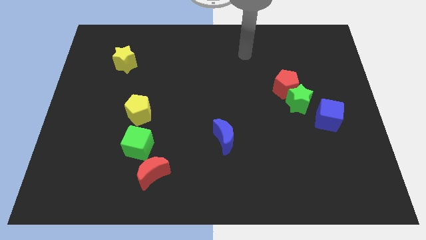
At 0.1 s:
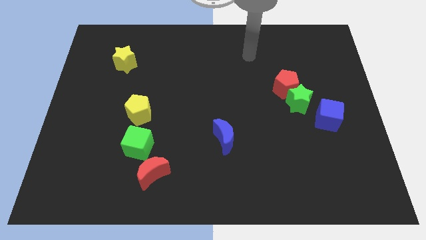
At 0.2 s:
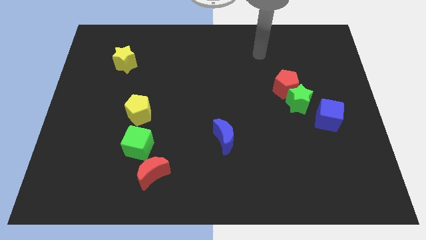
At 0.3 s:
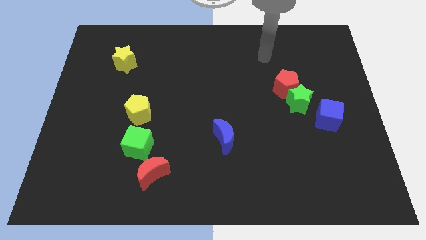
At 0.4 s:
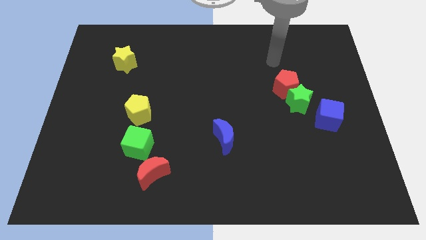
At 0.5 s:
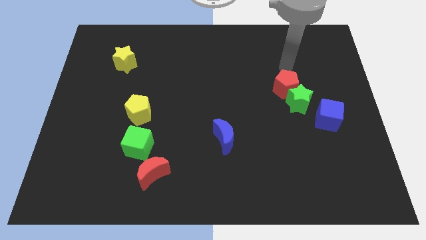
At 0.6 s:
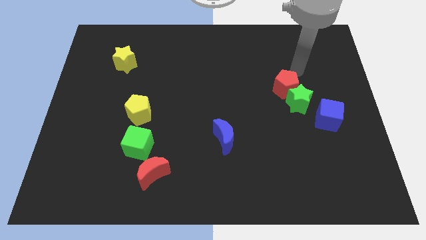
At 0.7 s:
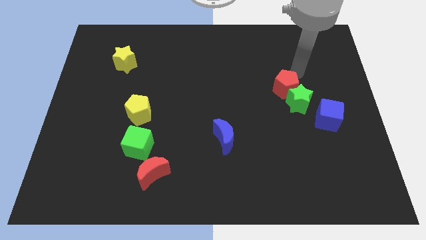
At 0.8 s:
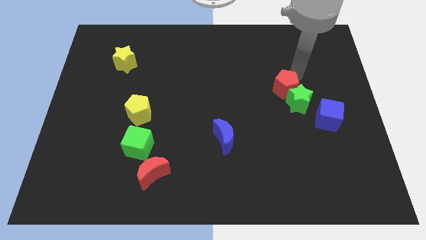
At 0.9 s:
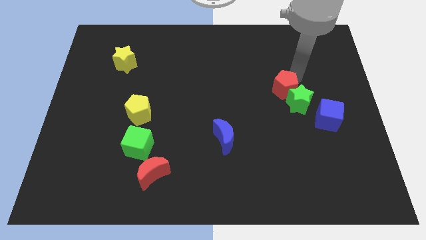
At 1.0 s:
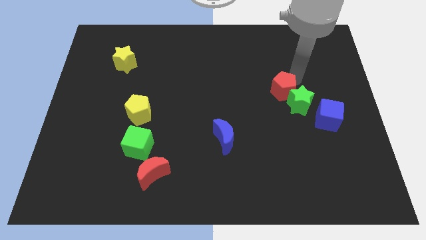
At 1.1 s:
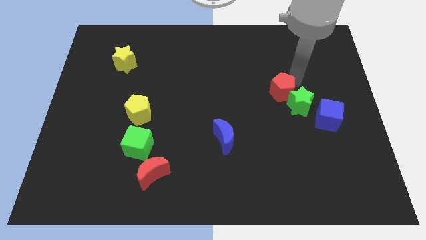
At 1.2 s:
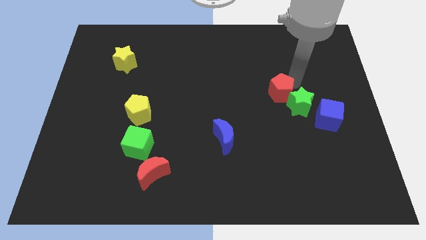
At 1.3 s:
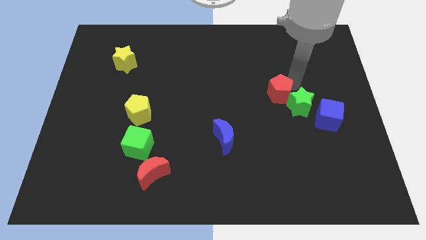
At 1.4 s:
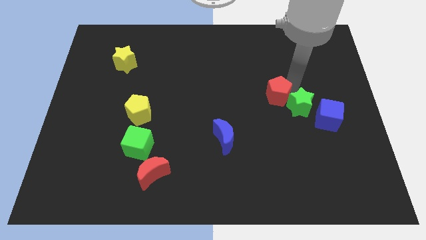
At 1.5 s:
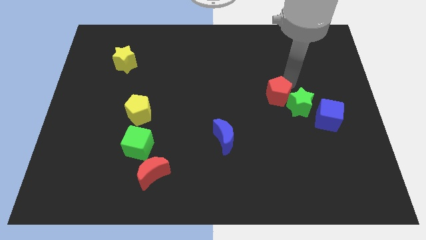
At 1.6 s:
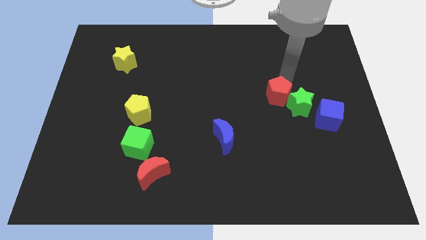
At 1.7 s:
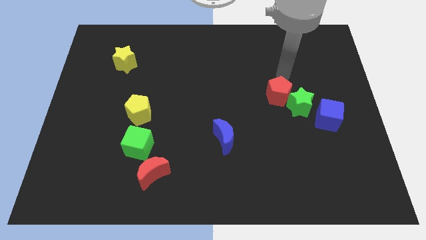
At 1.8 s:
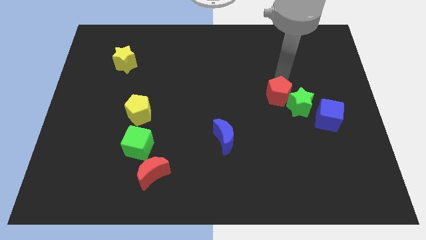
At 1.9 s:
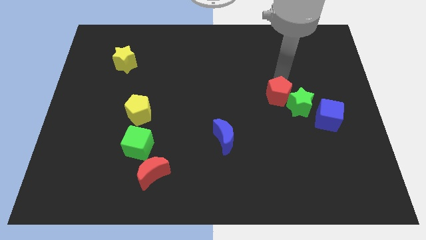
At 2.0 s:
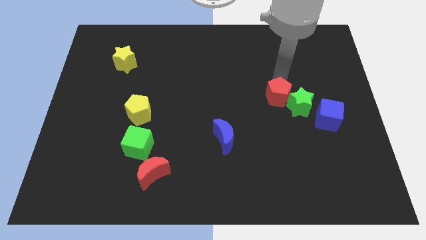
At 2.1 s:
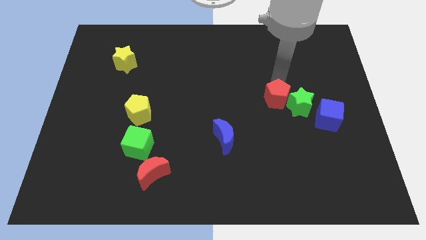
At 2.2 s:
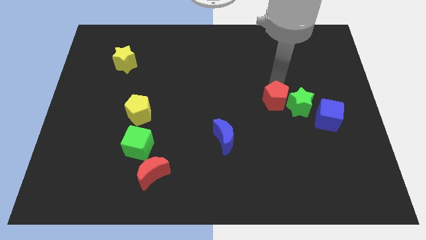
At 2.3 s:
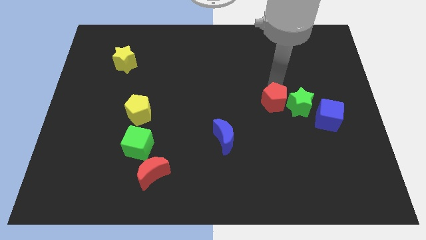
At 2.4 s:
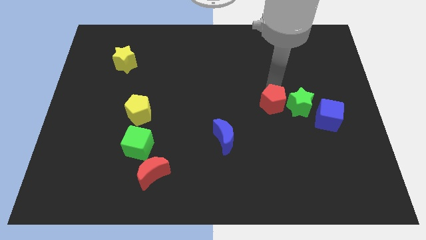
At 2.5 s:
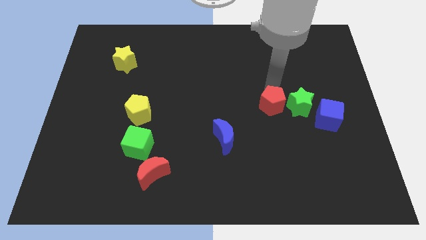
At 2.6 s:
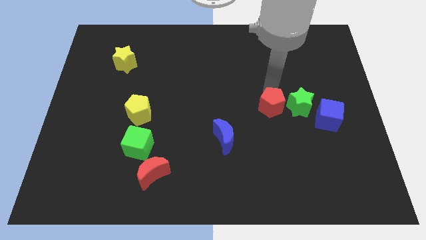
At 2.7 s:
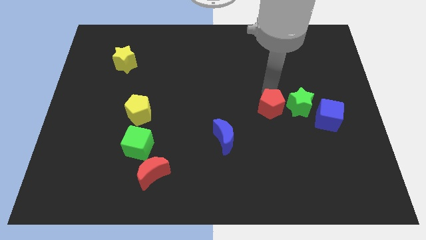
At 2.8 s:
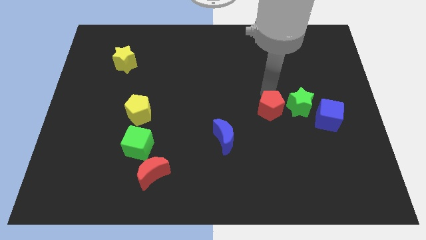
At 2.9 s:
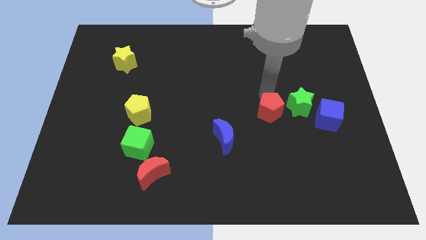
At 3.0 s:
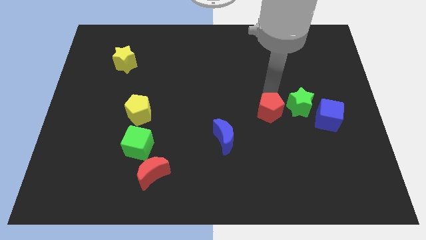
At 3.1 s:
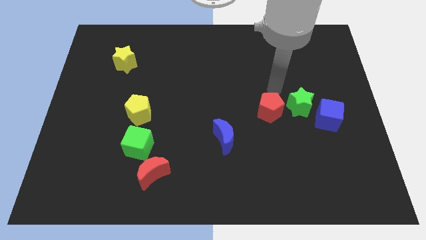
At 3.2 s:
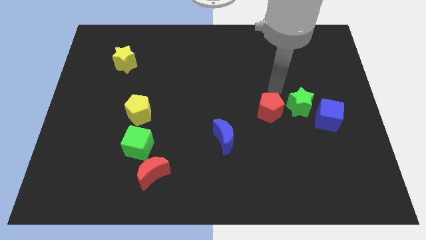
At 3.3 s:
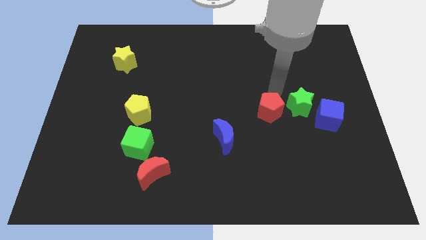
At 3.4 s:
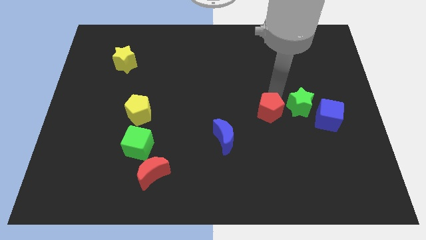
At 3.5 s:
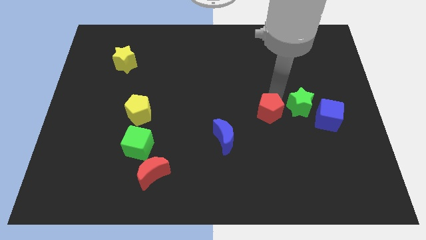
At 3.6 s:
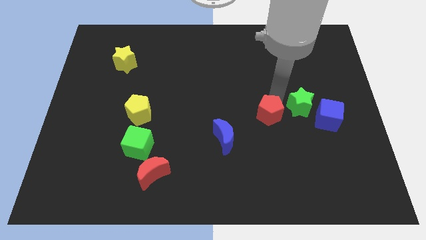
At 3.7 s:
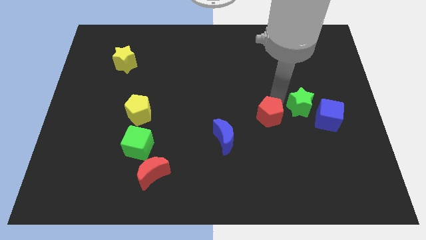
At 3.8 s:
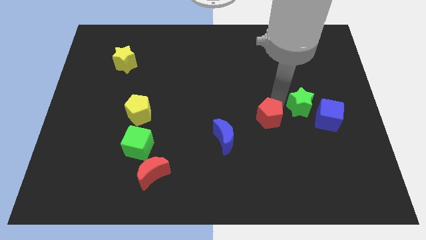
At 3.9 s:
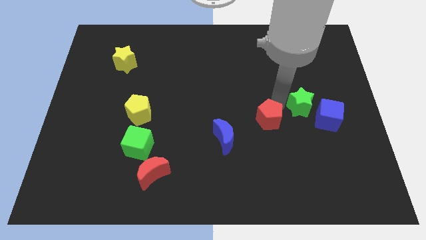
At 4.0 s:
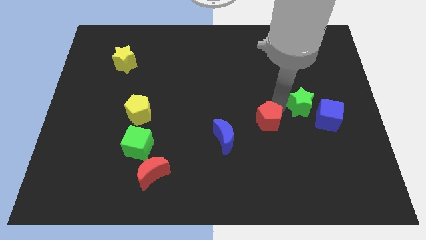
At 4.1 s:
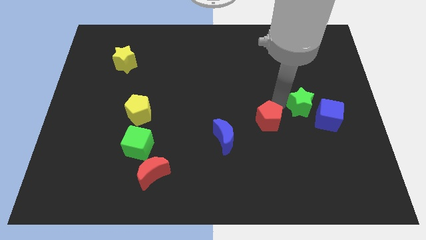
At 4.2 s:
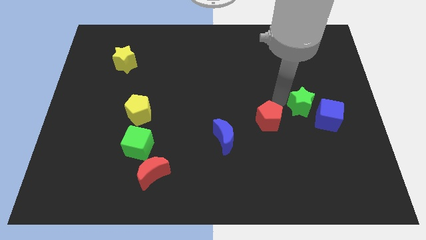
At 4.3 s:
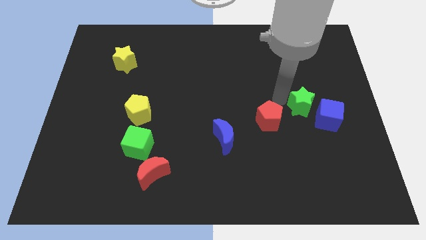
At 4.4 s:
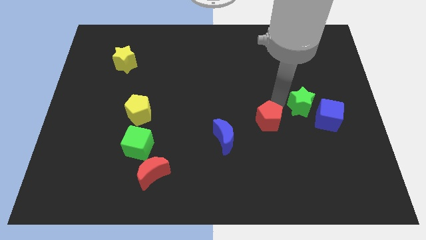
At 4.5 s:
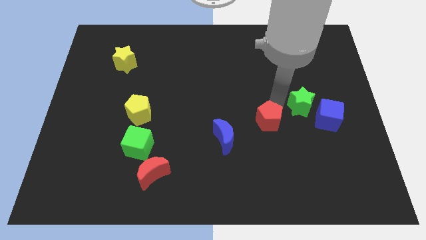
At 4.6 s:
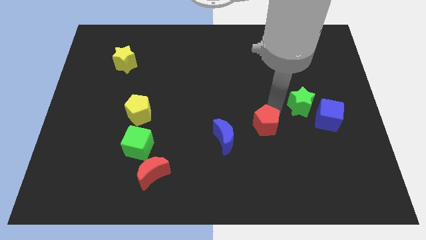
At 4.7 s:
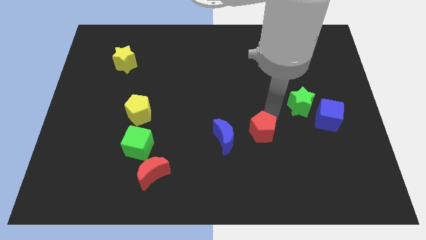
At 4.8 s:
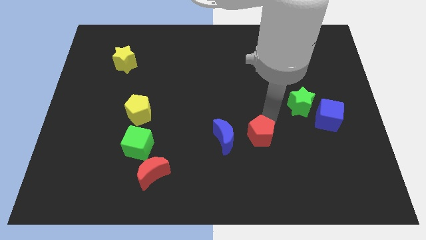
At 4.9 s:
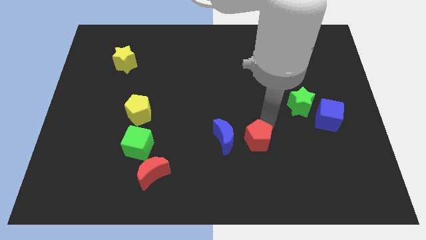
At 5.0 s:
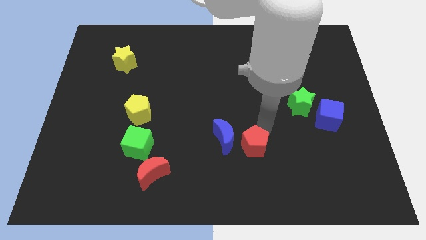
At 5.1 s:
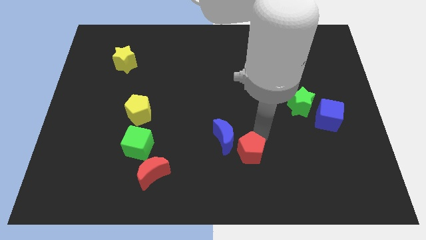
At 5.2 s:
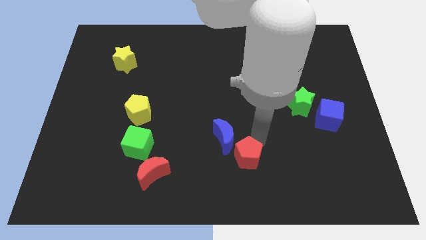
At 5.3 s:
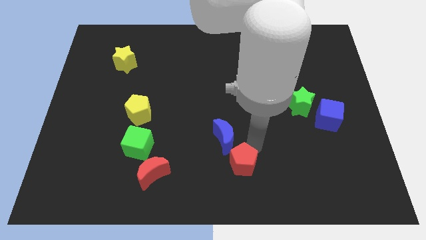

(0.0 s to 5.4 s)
move the red pentagon to the bottom side

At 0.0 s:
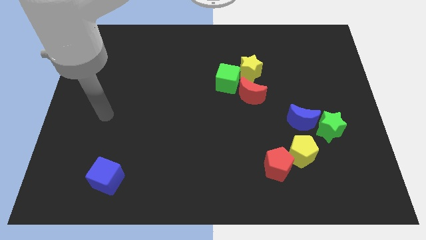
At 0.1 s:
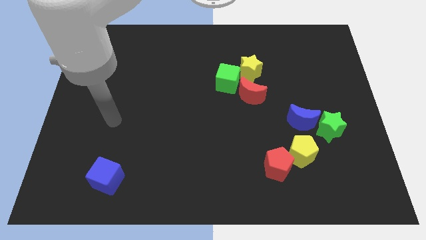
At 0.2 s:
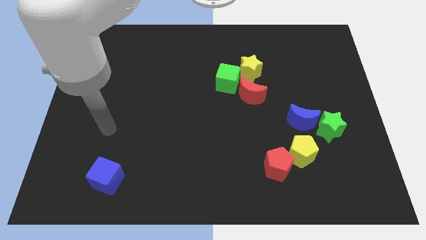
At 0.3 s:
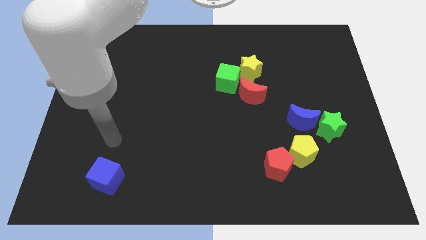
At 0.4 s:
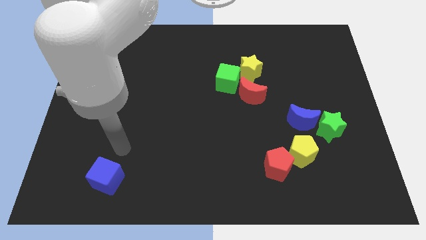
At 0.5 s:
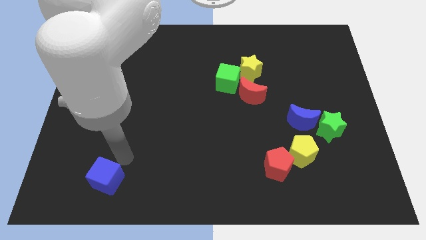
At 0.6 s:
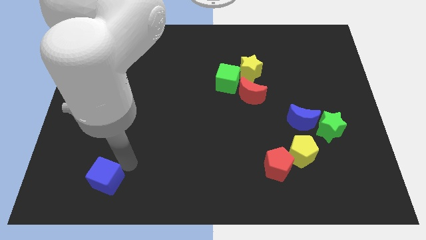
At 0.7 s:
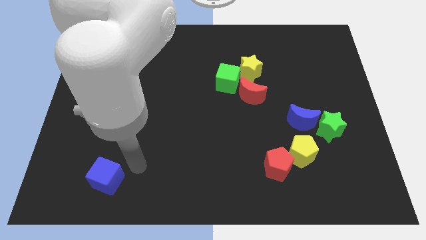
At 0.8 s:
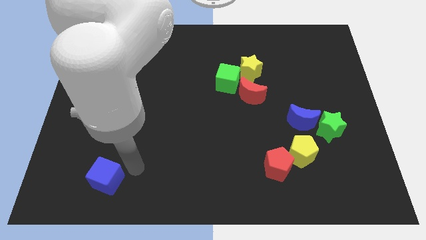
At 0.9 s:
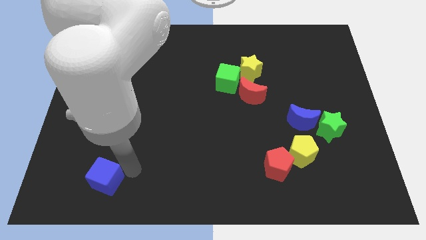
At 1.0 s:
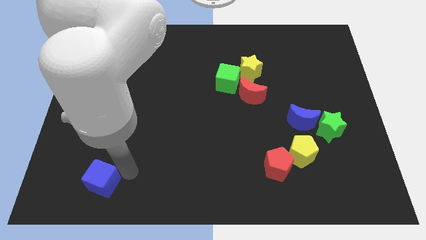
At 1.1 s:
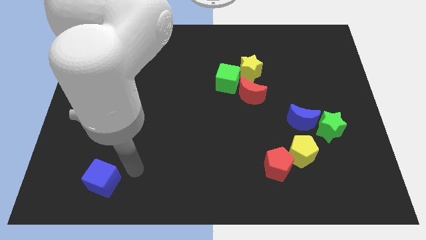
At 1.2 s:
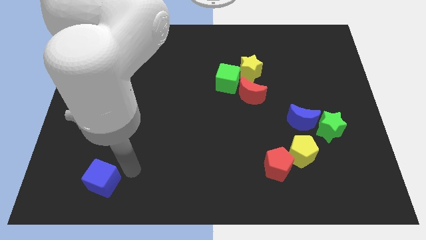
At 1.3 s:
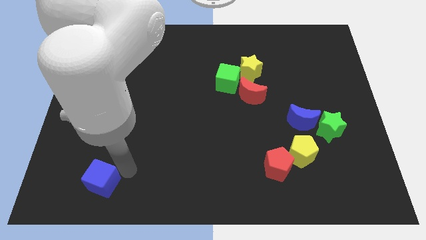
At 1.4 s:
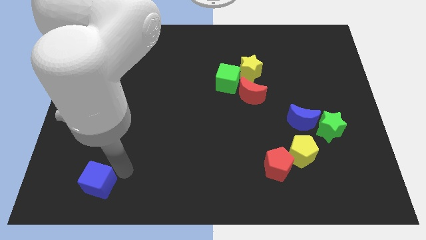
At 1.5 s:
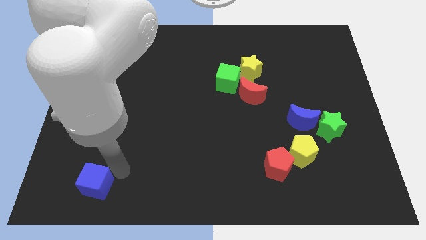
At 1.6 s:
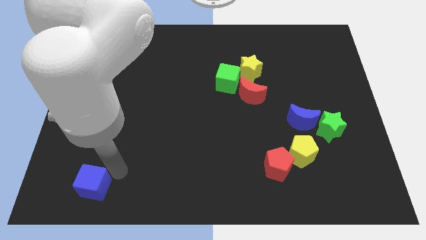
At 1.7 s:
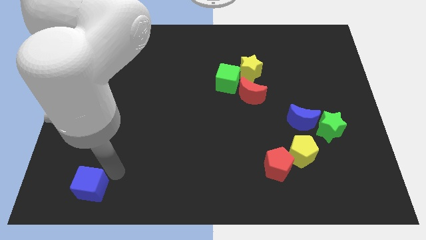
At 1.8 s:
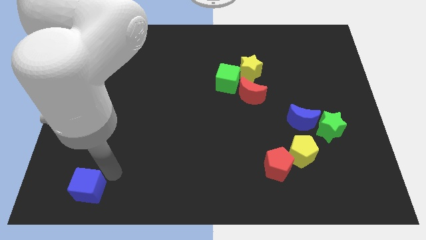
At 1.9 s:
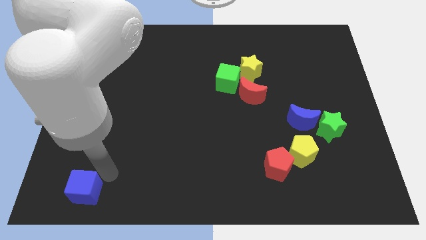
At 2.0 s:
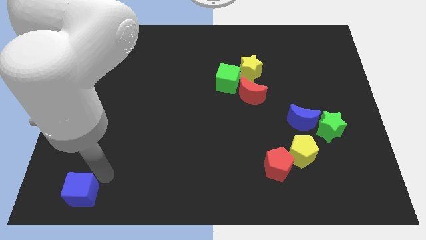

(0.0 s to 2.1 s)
push the blue cube to the bottom left corner
